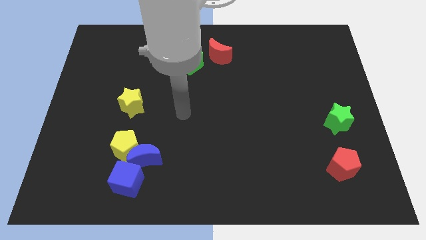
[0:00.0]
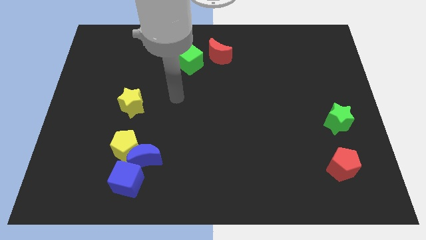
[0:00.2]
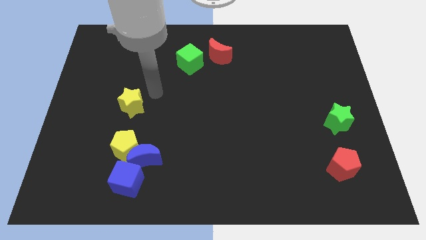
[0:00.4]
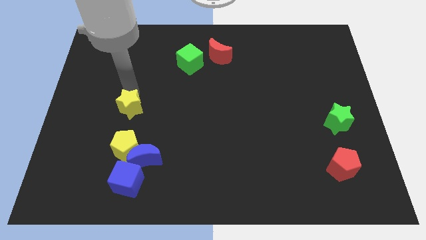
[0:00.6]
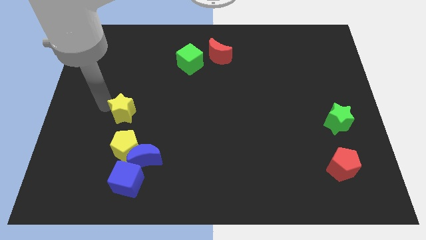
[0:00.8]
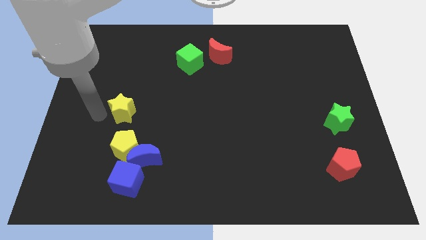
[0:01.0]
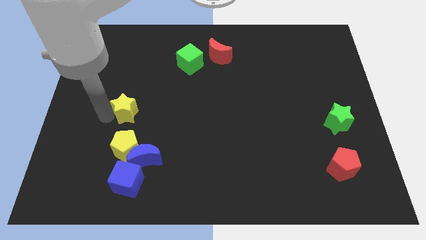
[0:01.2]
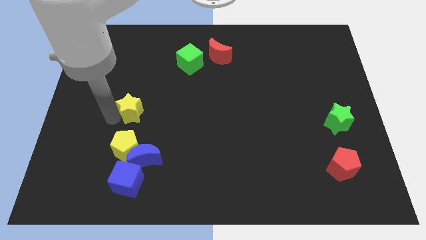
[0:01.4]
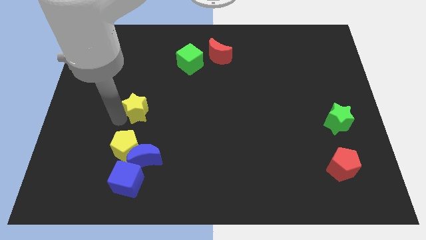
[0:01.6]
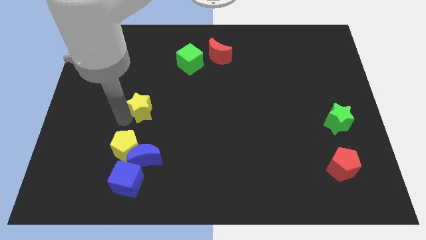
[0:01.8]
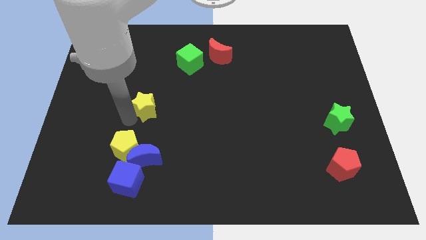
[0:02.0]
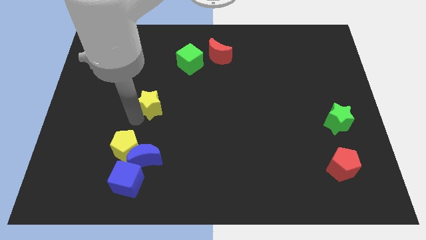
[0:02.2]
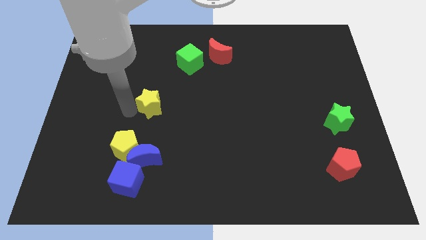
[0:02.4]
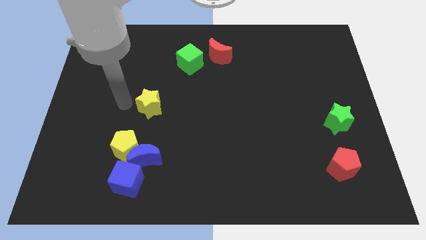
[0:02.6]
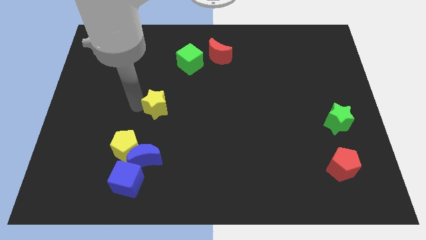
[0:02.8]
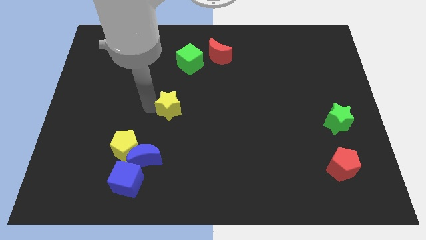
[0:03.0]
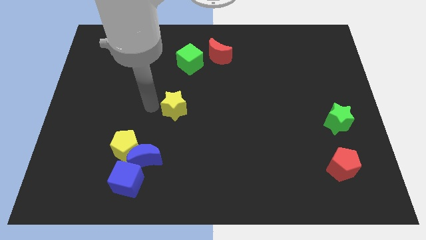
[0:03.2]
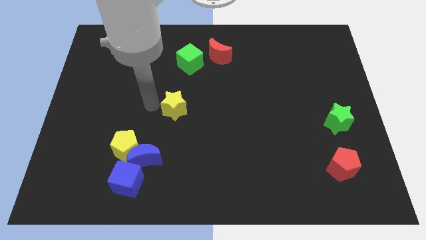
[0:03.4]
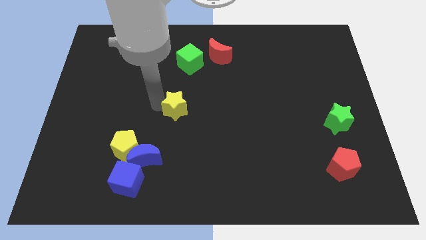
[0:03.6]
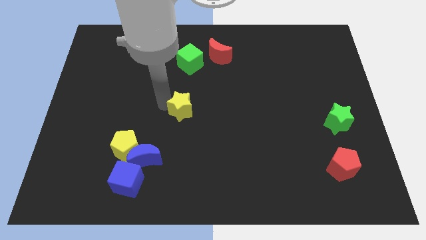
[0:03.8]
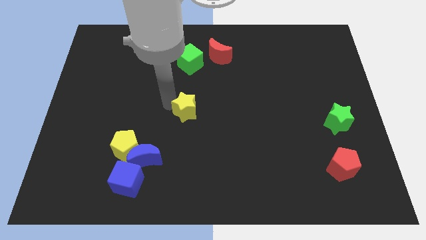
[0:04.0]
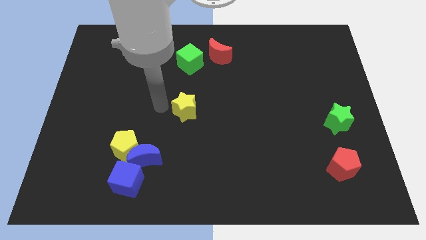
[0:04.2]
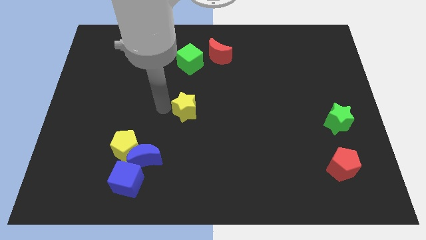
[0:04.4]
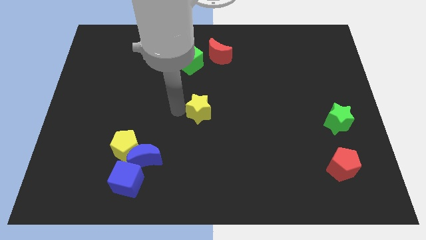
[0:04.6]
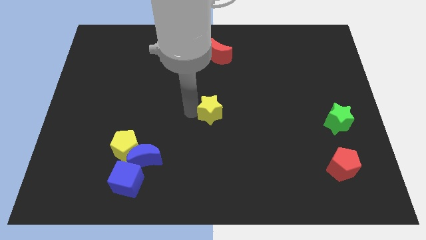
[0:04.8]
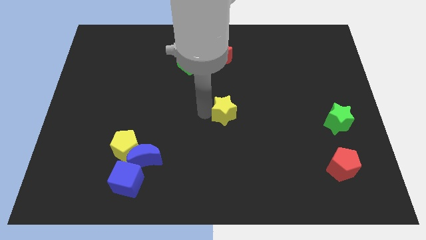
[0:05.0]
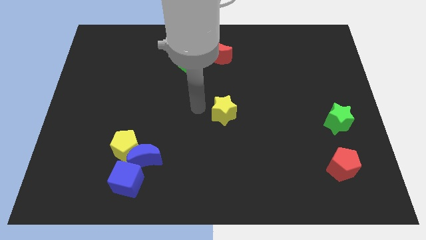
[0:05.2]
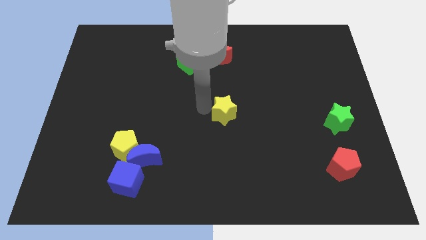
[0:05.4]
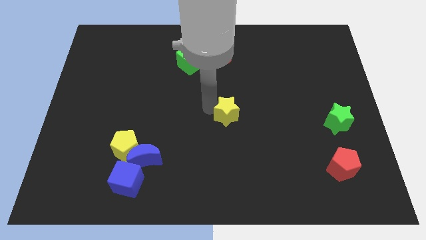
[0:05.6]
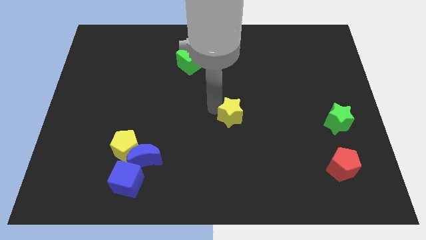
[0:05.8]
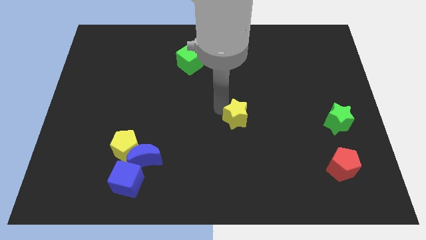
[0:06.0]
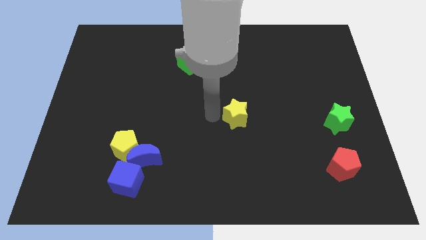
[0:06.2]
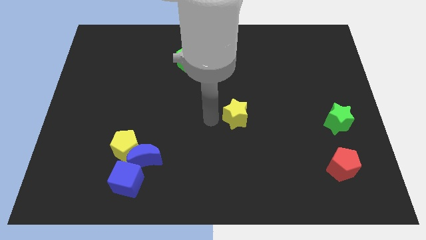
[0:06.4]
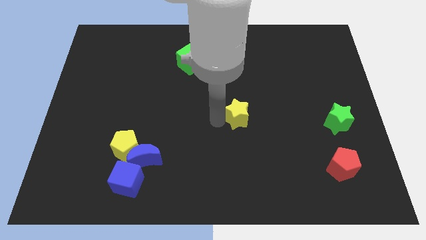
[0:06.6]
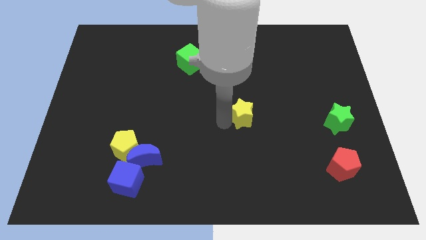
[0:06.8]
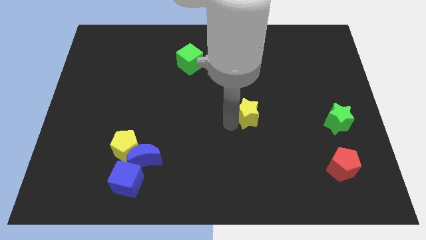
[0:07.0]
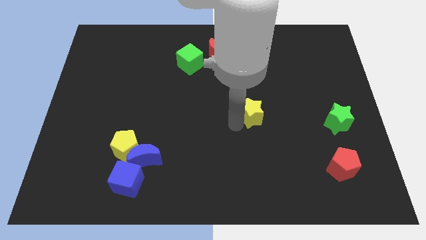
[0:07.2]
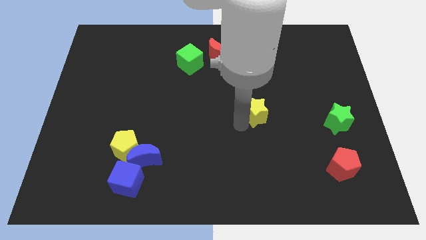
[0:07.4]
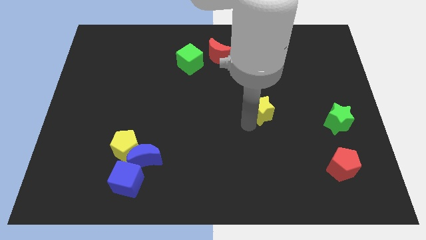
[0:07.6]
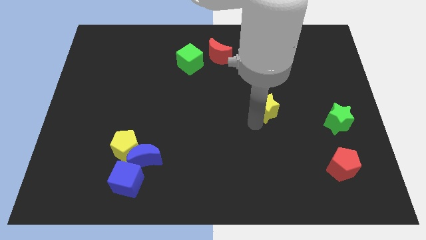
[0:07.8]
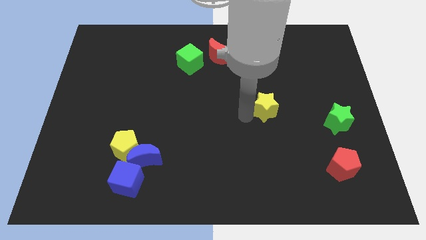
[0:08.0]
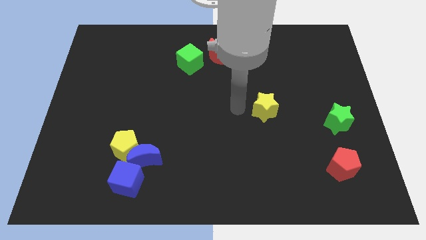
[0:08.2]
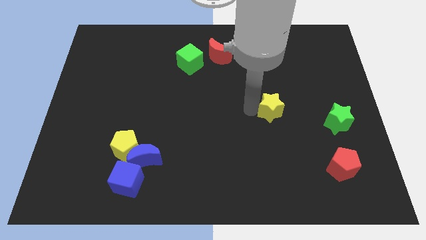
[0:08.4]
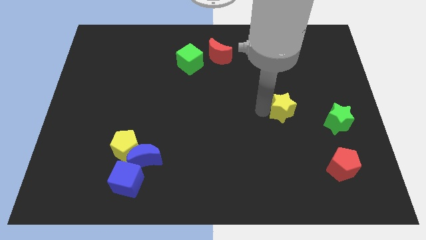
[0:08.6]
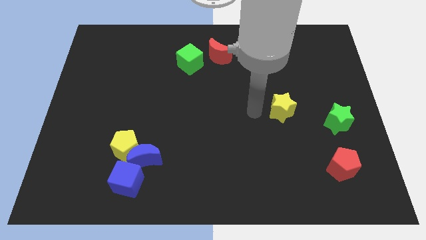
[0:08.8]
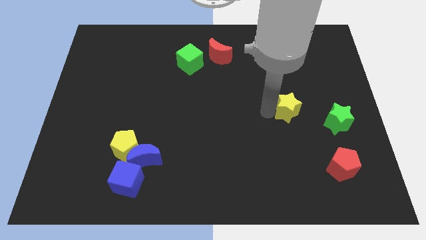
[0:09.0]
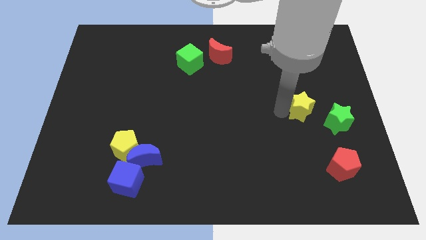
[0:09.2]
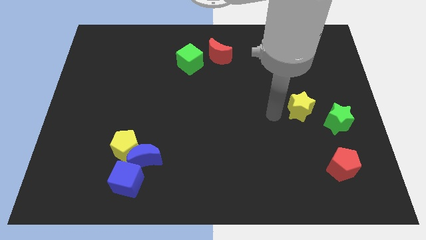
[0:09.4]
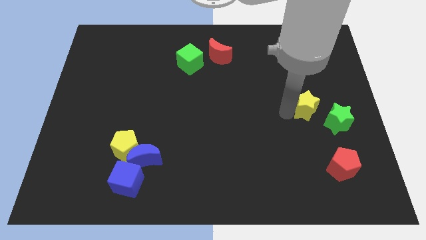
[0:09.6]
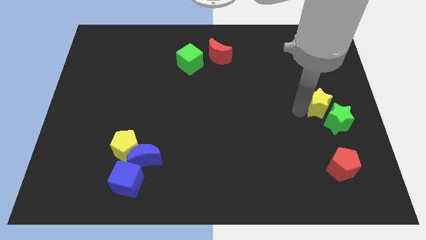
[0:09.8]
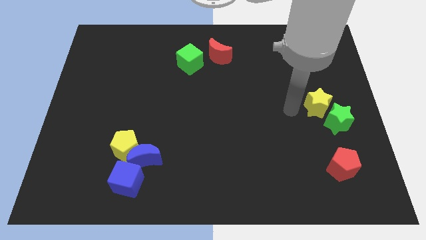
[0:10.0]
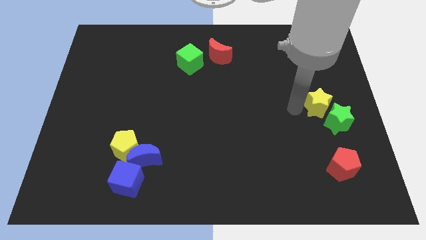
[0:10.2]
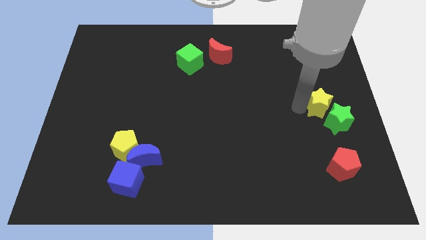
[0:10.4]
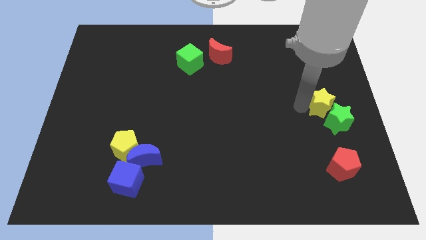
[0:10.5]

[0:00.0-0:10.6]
push the yellow star to the right side of the board

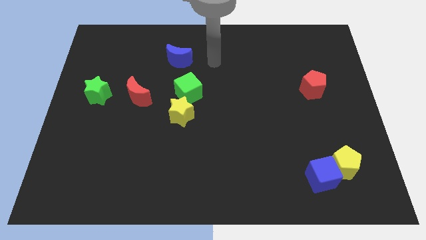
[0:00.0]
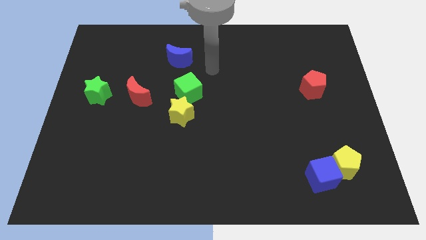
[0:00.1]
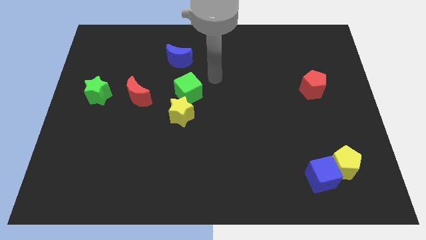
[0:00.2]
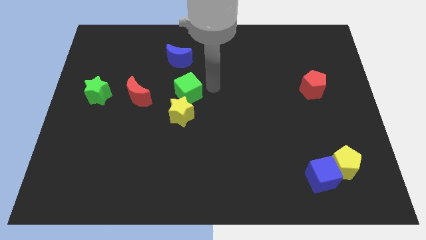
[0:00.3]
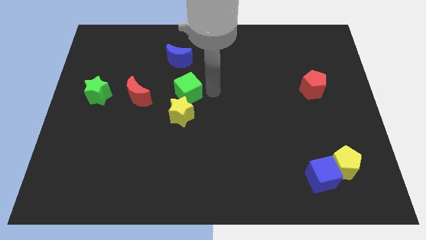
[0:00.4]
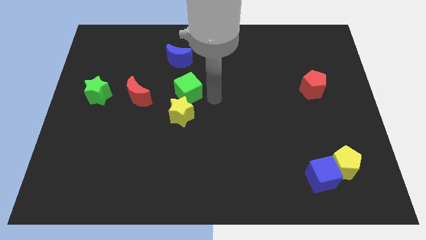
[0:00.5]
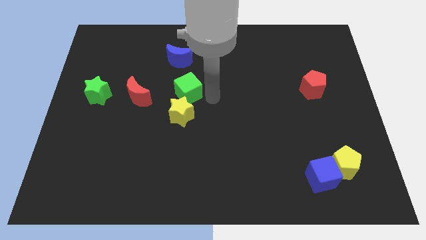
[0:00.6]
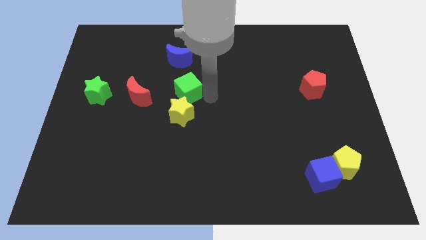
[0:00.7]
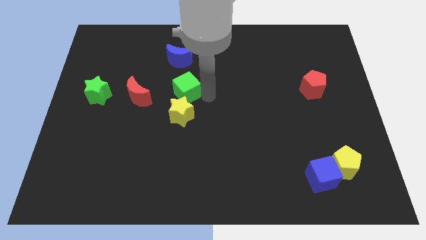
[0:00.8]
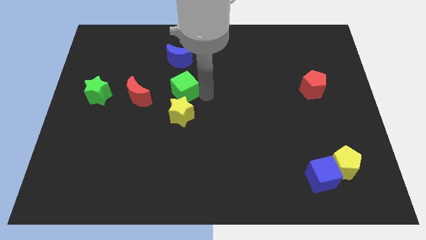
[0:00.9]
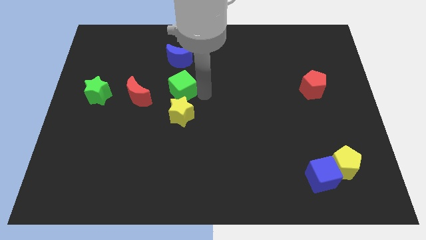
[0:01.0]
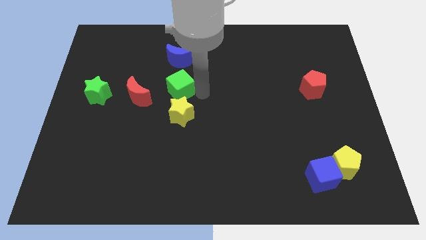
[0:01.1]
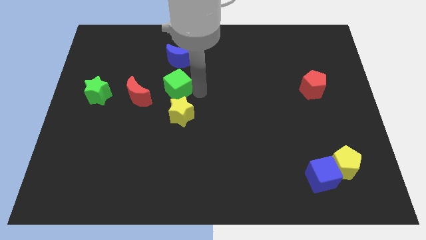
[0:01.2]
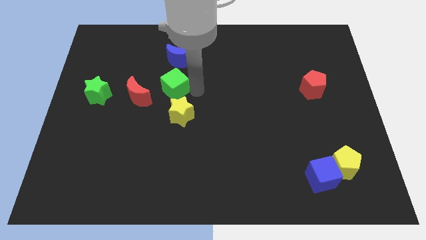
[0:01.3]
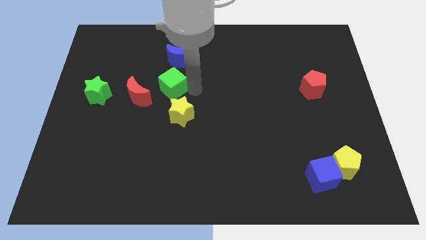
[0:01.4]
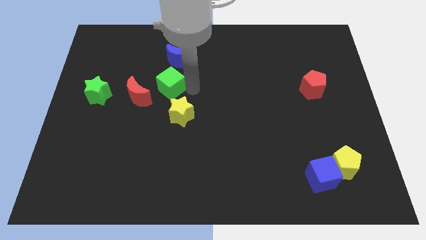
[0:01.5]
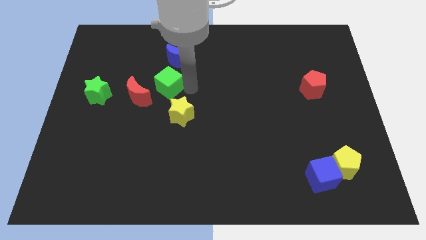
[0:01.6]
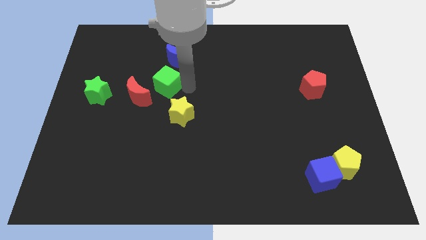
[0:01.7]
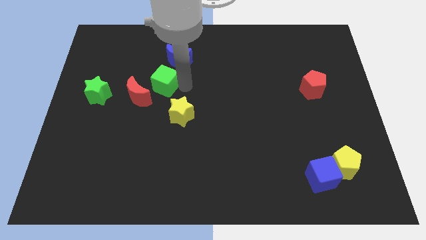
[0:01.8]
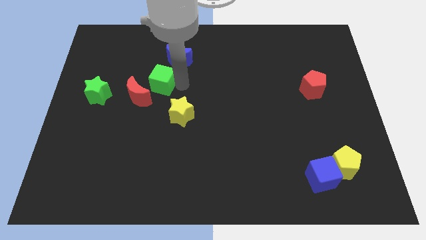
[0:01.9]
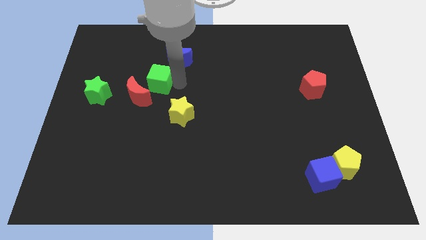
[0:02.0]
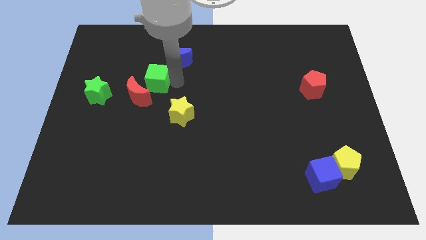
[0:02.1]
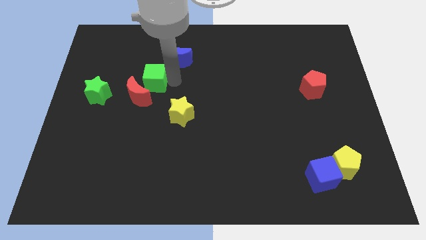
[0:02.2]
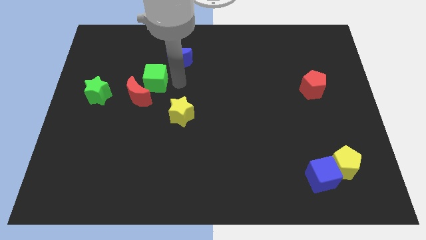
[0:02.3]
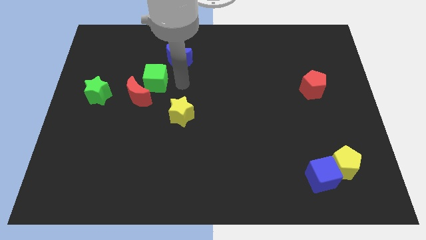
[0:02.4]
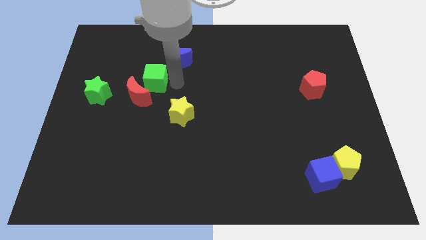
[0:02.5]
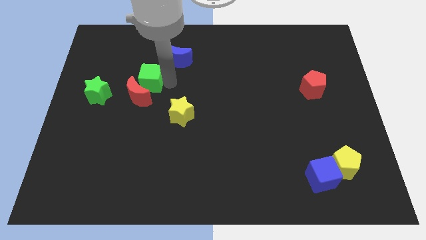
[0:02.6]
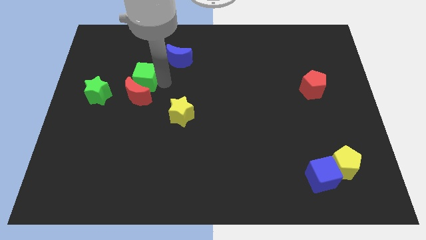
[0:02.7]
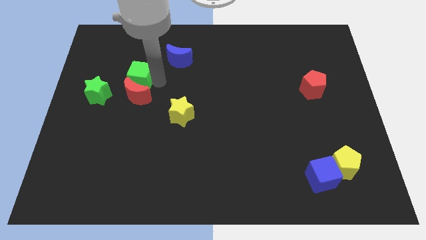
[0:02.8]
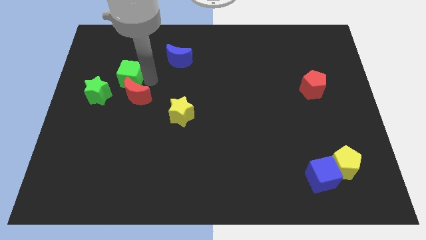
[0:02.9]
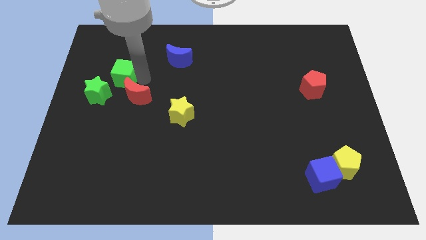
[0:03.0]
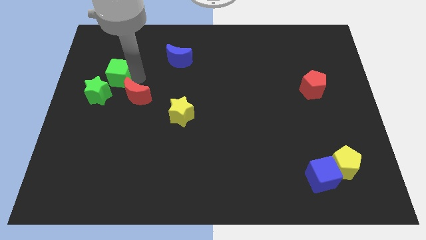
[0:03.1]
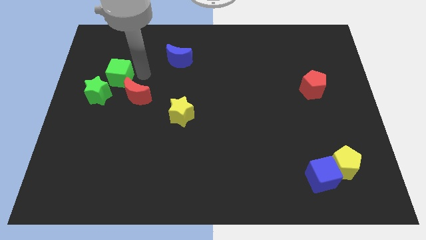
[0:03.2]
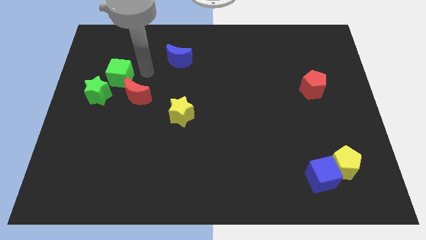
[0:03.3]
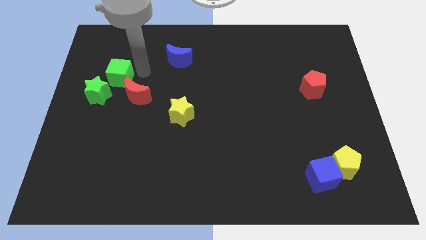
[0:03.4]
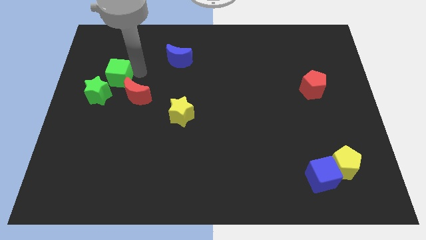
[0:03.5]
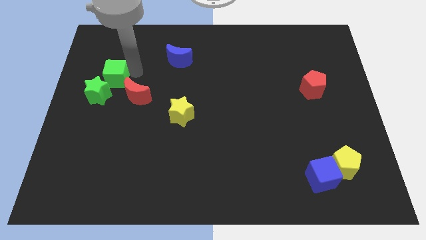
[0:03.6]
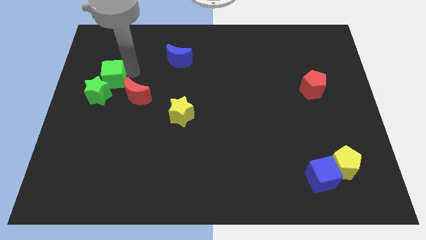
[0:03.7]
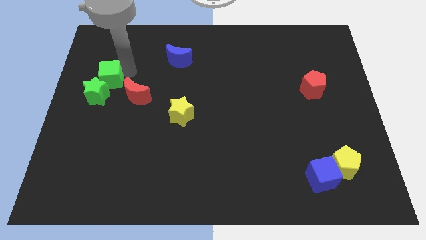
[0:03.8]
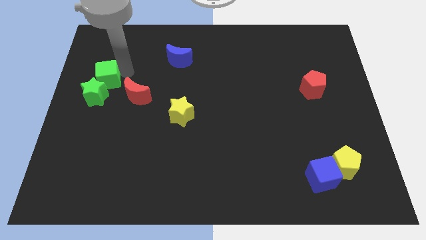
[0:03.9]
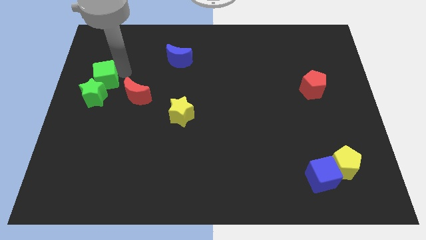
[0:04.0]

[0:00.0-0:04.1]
push the green cube to the left side of the board
